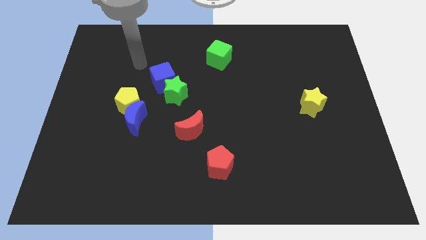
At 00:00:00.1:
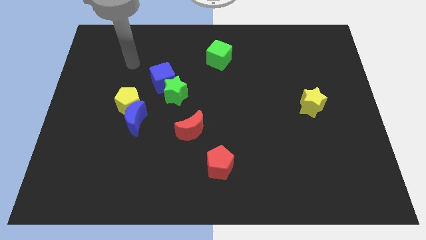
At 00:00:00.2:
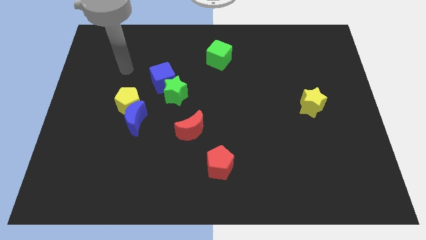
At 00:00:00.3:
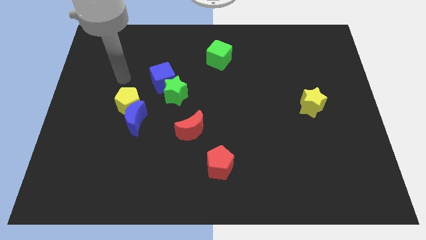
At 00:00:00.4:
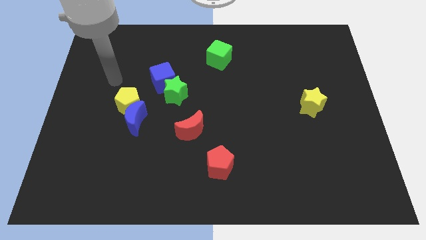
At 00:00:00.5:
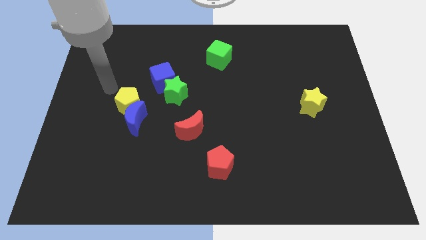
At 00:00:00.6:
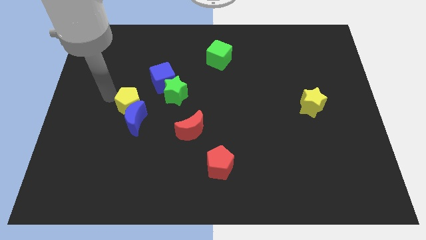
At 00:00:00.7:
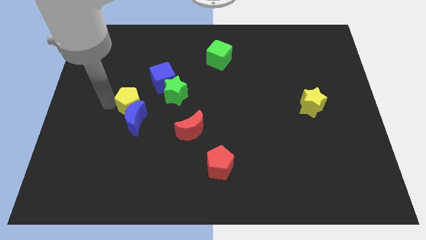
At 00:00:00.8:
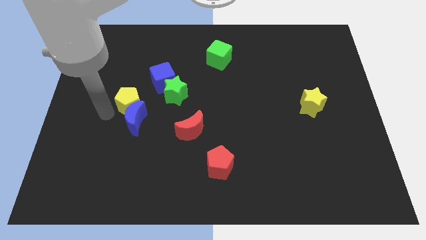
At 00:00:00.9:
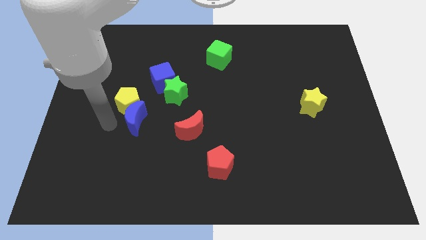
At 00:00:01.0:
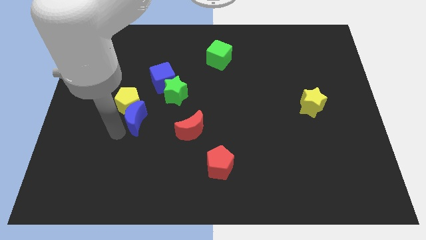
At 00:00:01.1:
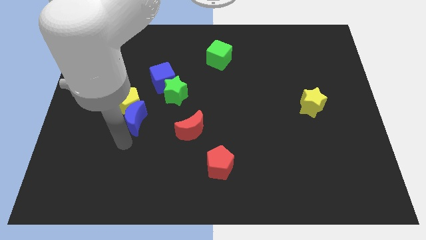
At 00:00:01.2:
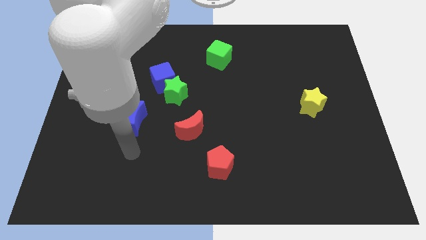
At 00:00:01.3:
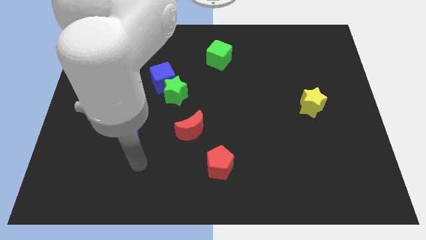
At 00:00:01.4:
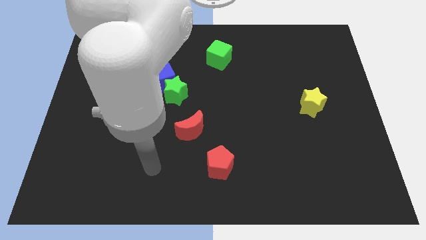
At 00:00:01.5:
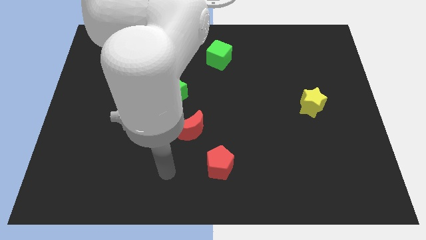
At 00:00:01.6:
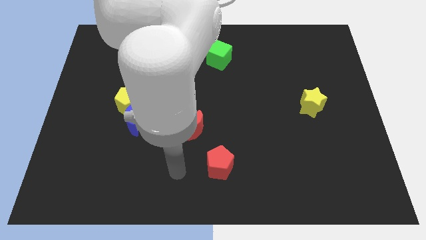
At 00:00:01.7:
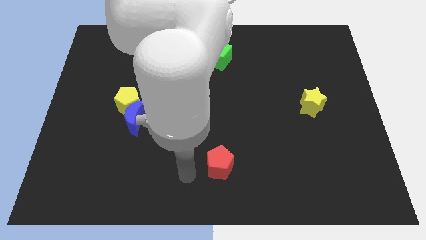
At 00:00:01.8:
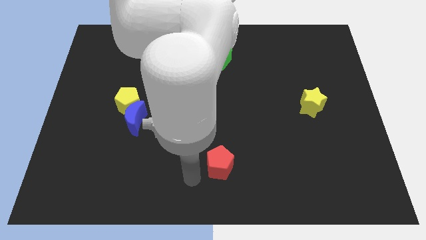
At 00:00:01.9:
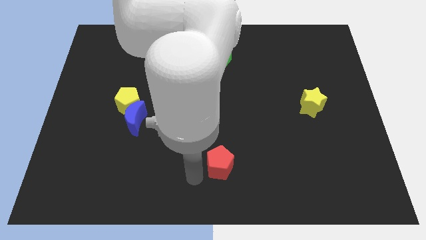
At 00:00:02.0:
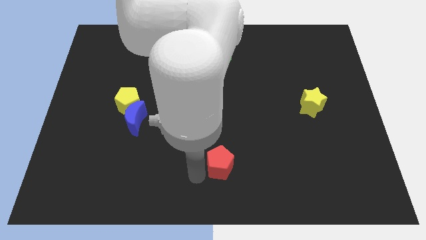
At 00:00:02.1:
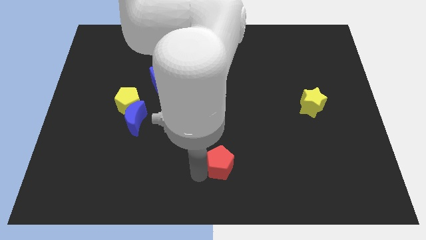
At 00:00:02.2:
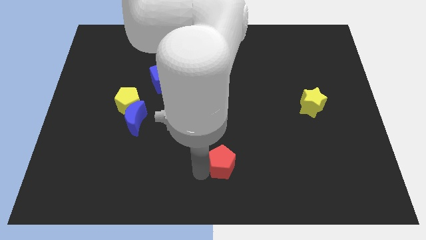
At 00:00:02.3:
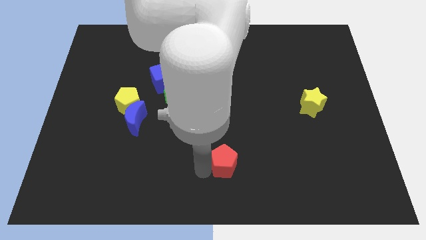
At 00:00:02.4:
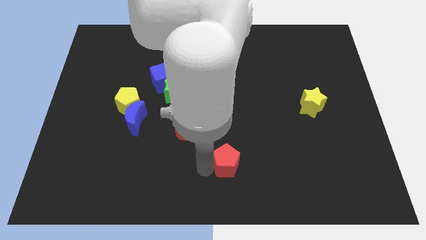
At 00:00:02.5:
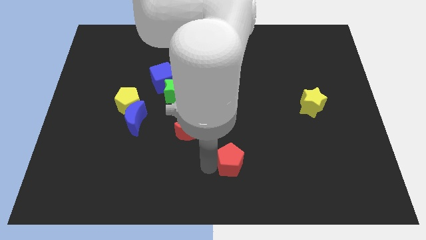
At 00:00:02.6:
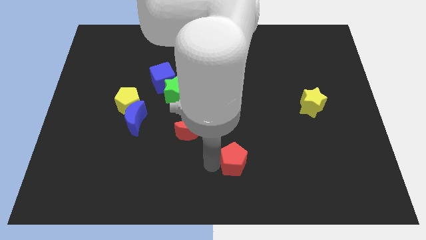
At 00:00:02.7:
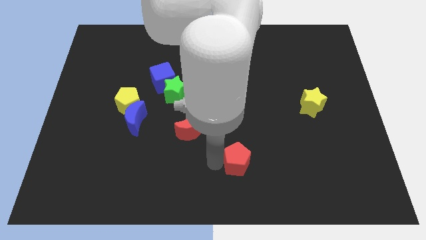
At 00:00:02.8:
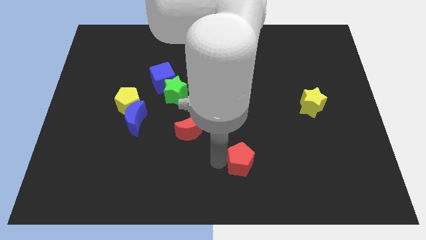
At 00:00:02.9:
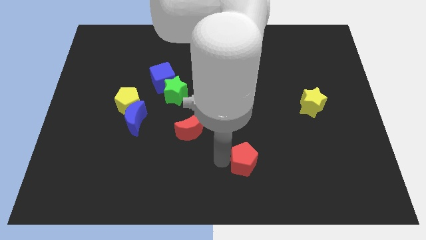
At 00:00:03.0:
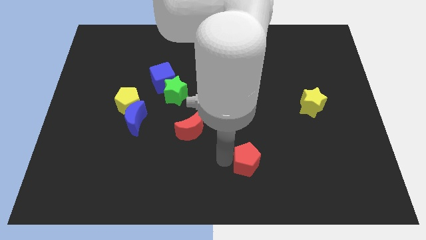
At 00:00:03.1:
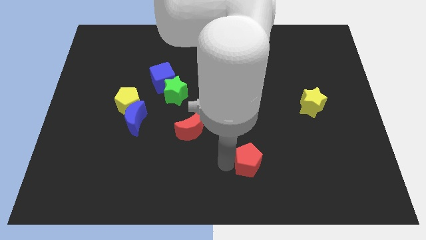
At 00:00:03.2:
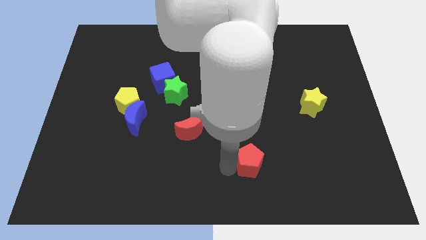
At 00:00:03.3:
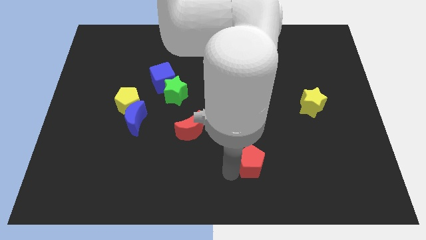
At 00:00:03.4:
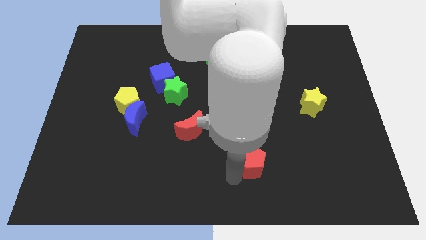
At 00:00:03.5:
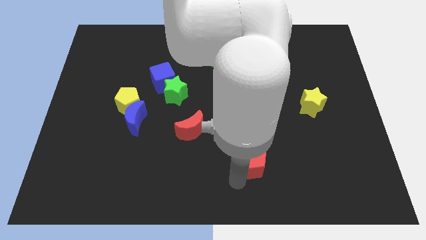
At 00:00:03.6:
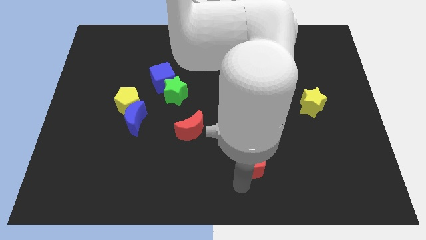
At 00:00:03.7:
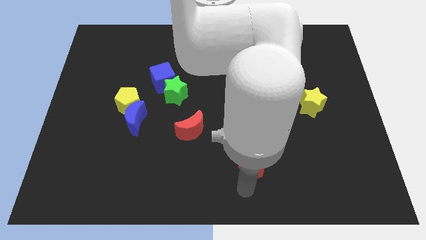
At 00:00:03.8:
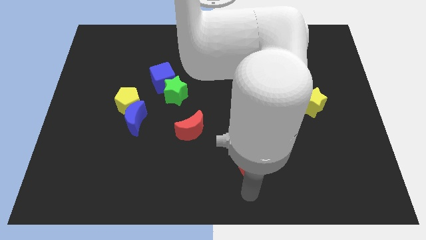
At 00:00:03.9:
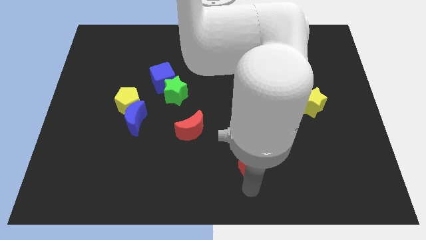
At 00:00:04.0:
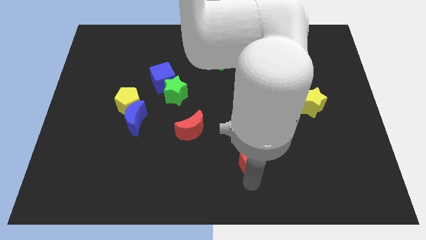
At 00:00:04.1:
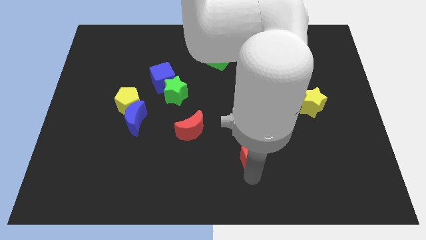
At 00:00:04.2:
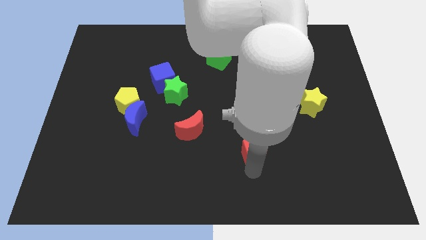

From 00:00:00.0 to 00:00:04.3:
push the red pentagon up and then right somewhat

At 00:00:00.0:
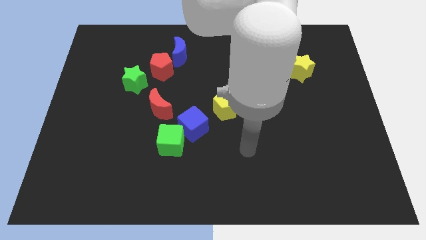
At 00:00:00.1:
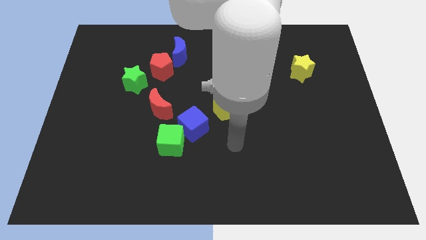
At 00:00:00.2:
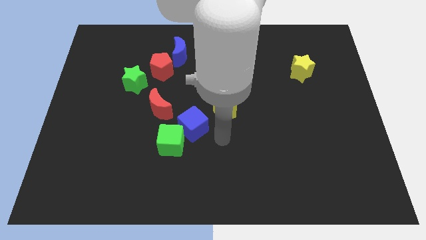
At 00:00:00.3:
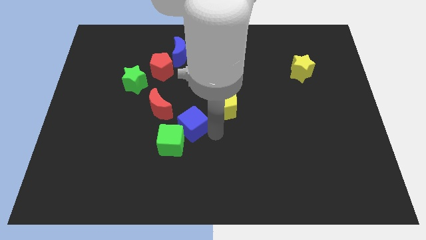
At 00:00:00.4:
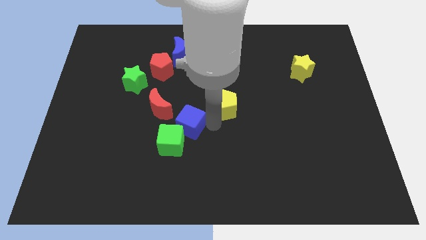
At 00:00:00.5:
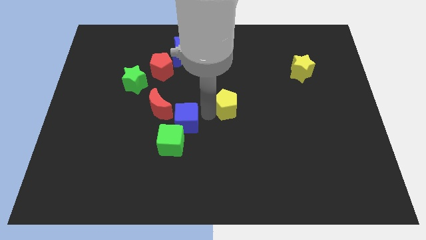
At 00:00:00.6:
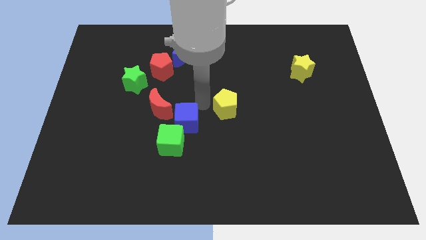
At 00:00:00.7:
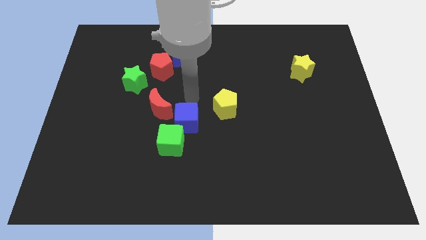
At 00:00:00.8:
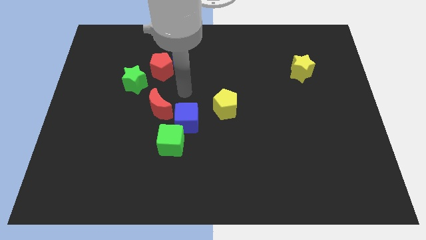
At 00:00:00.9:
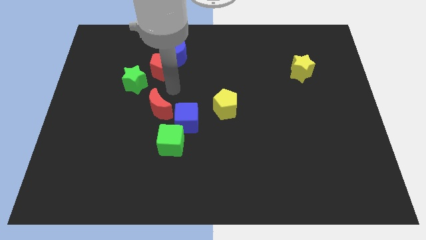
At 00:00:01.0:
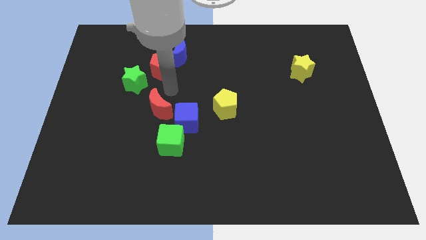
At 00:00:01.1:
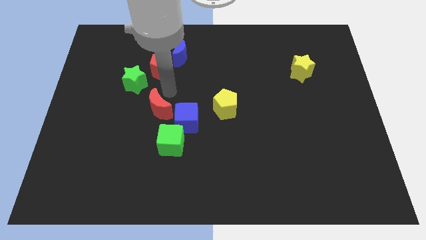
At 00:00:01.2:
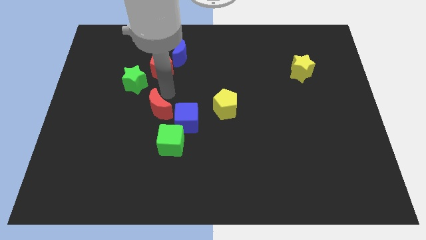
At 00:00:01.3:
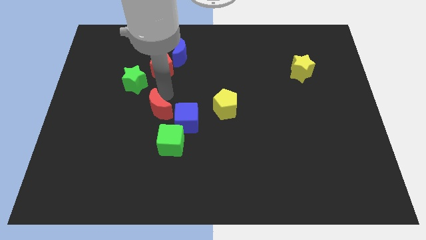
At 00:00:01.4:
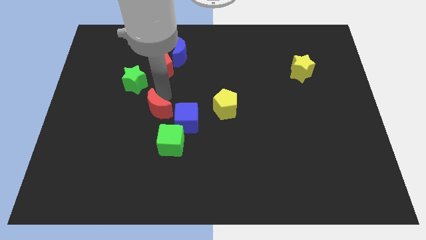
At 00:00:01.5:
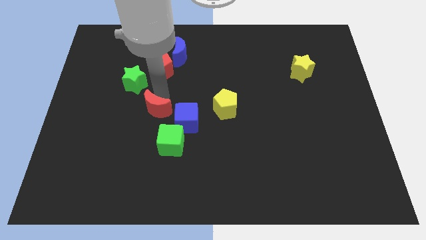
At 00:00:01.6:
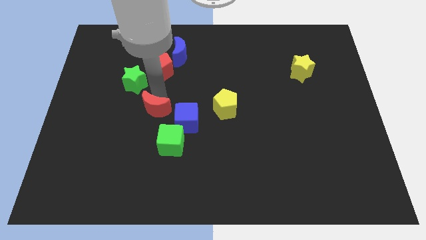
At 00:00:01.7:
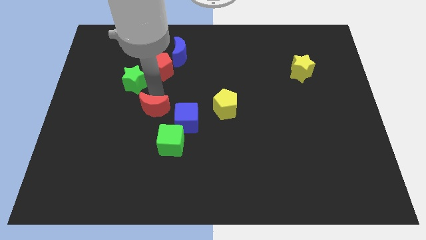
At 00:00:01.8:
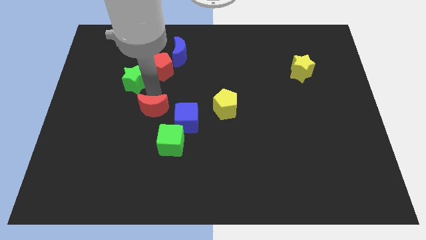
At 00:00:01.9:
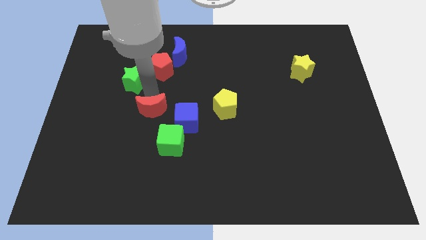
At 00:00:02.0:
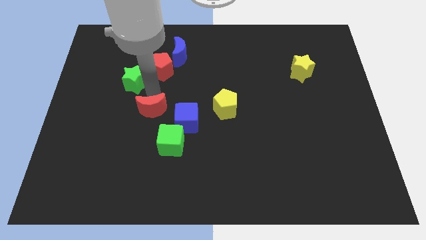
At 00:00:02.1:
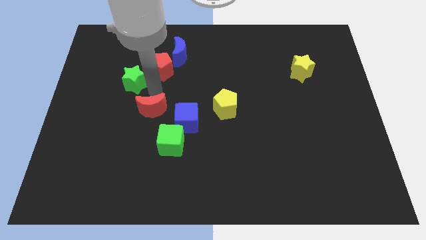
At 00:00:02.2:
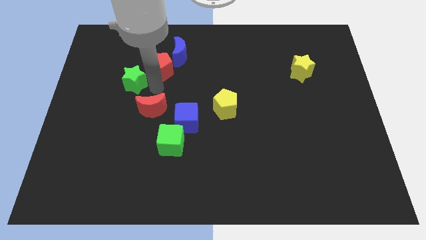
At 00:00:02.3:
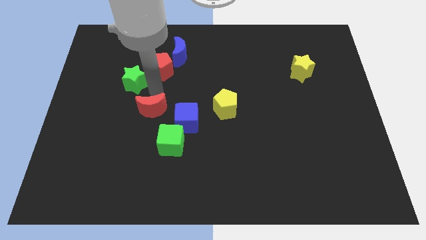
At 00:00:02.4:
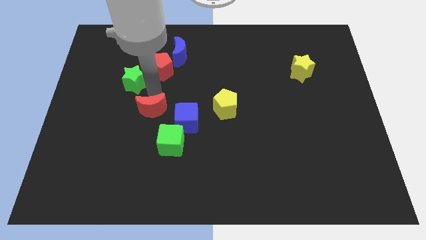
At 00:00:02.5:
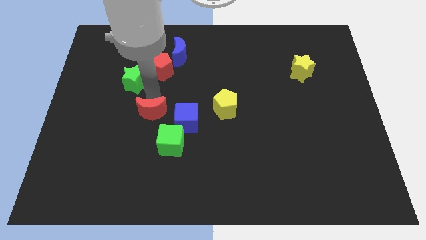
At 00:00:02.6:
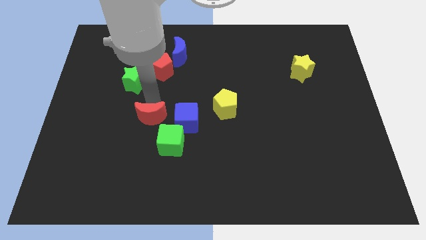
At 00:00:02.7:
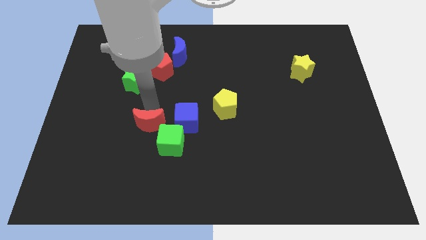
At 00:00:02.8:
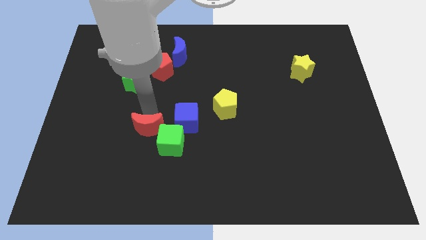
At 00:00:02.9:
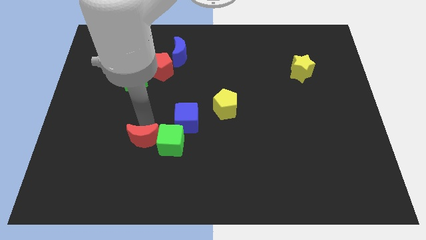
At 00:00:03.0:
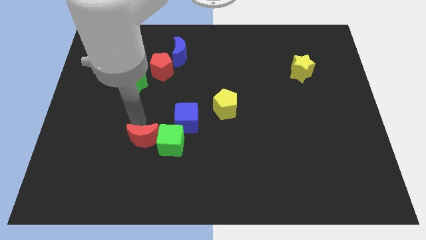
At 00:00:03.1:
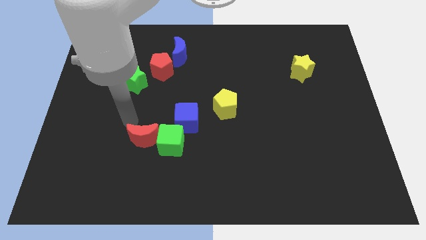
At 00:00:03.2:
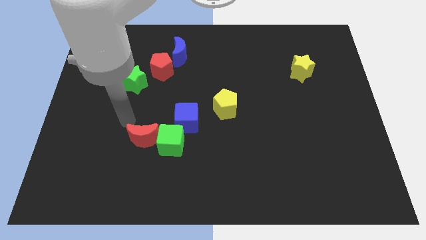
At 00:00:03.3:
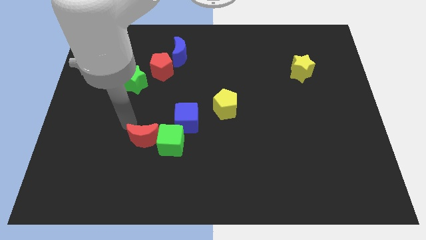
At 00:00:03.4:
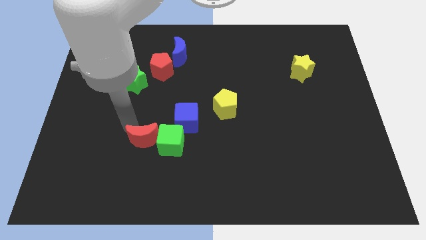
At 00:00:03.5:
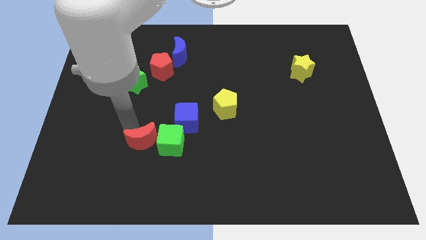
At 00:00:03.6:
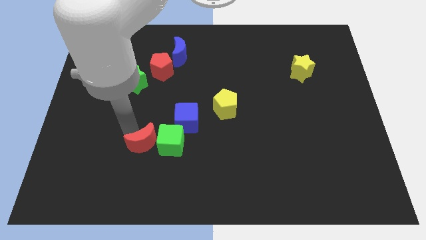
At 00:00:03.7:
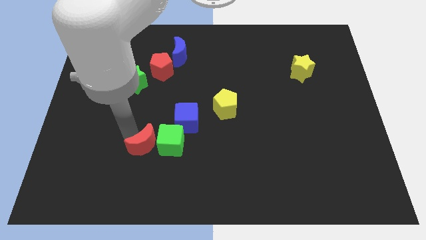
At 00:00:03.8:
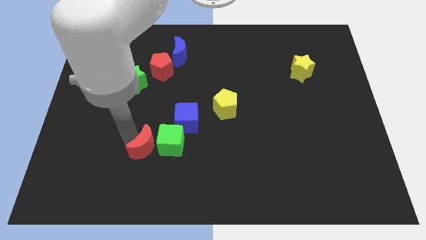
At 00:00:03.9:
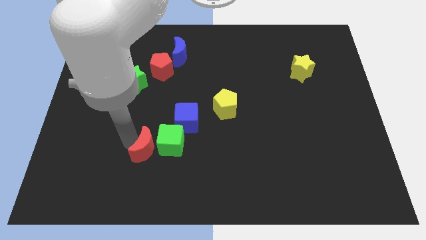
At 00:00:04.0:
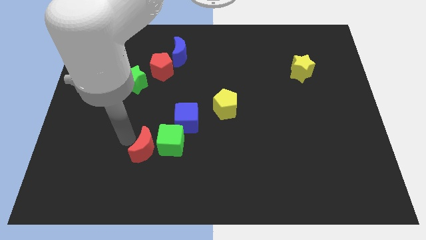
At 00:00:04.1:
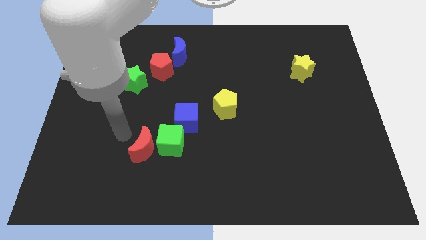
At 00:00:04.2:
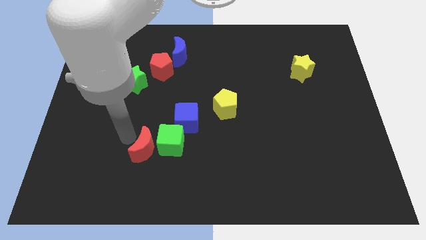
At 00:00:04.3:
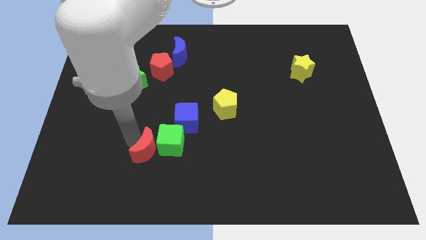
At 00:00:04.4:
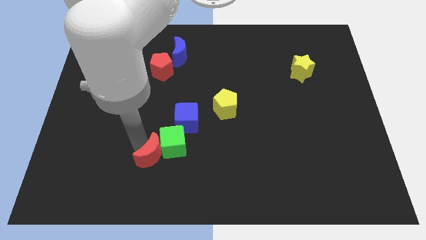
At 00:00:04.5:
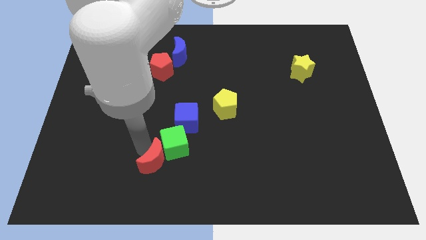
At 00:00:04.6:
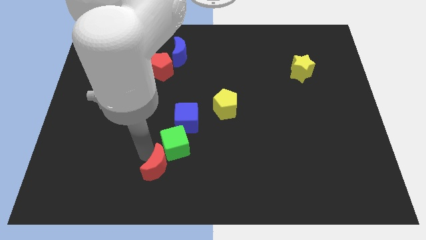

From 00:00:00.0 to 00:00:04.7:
slightly slide the red moon diagonally downwards and to the right
